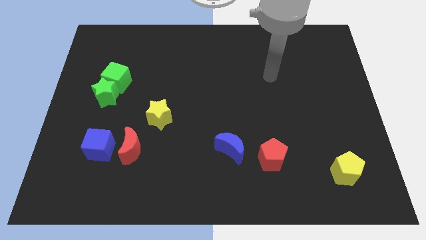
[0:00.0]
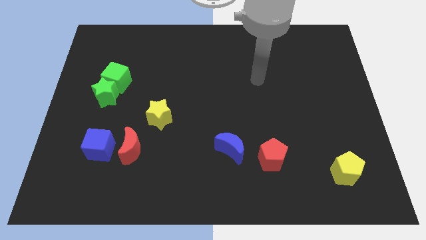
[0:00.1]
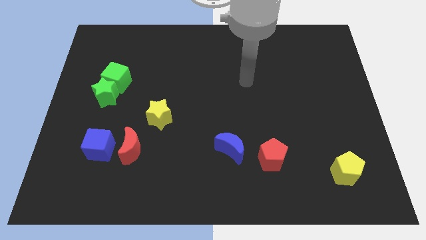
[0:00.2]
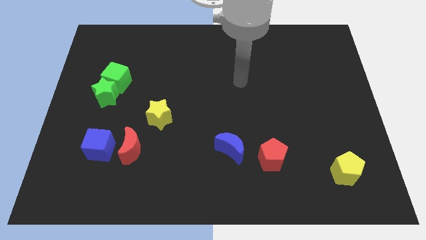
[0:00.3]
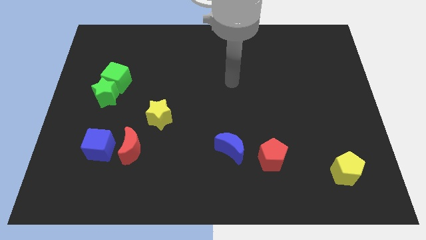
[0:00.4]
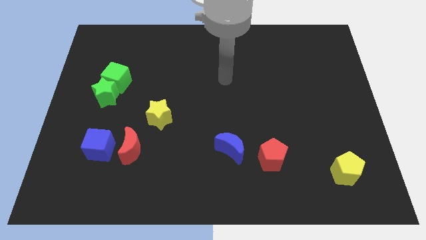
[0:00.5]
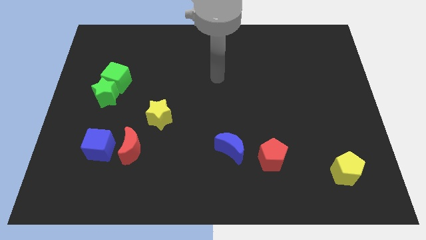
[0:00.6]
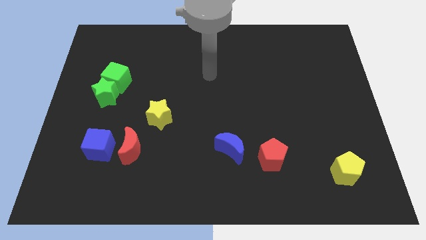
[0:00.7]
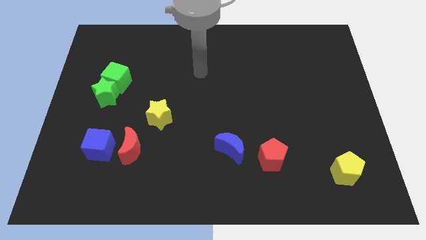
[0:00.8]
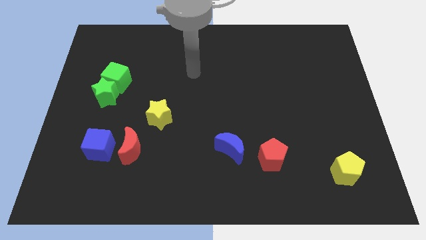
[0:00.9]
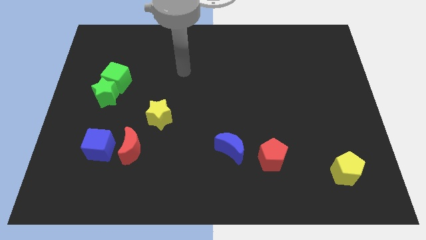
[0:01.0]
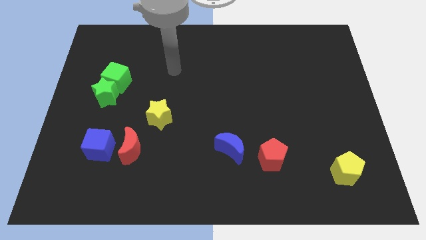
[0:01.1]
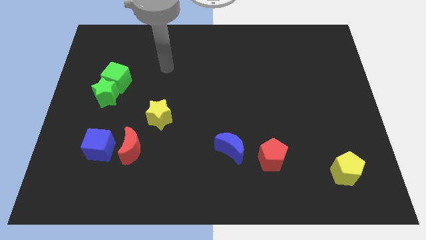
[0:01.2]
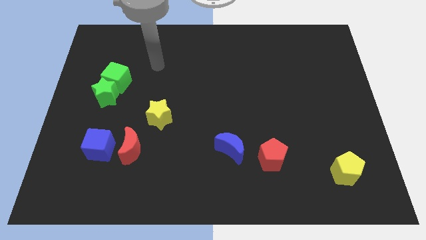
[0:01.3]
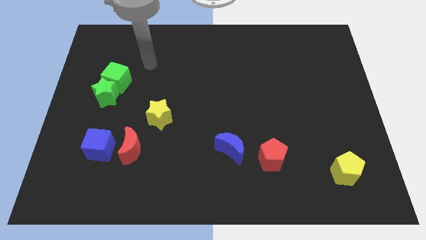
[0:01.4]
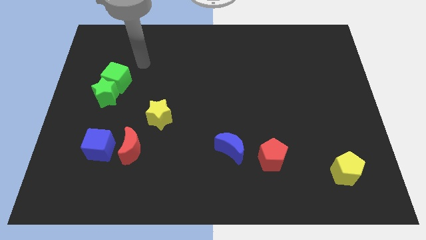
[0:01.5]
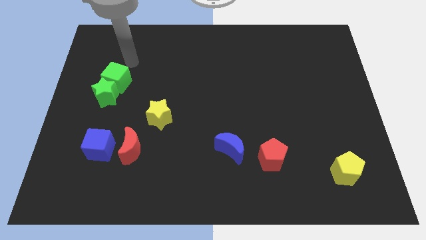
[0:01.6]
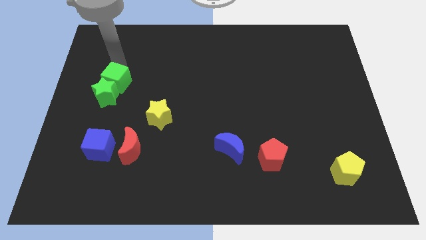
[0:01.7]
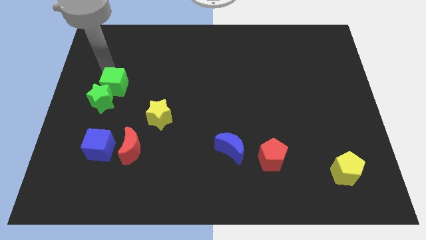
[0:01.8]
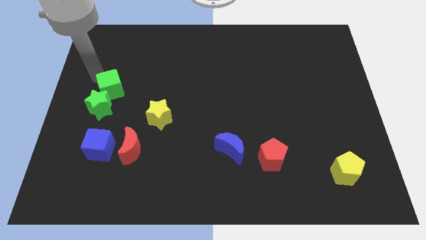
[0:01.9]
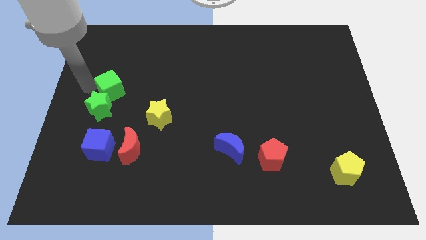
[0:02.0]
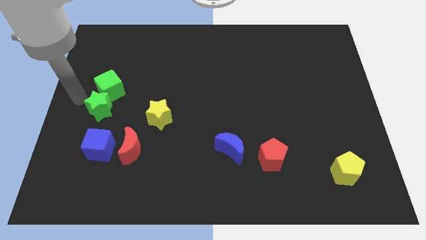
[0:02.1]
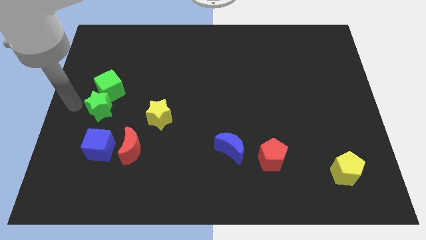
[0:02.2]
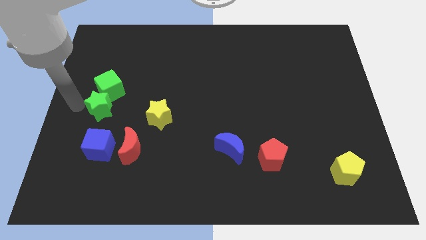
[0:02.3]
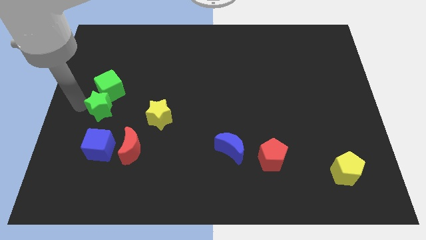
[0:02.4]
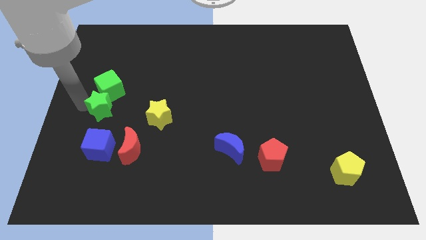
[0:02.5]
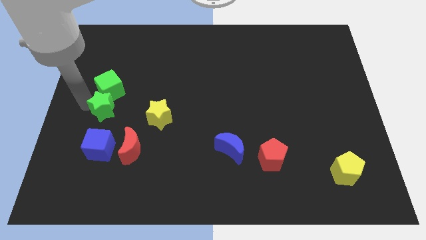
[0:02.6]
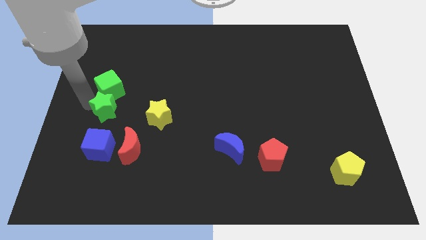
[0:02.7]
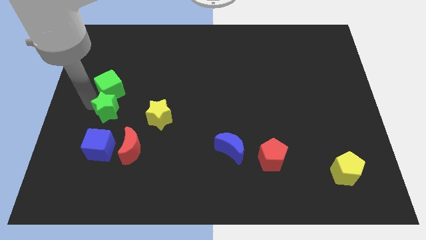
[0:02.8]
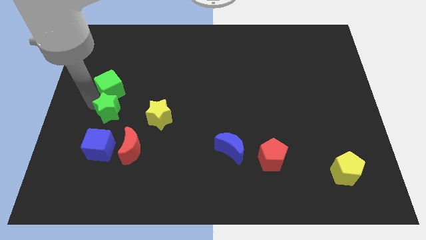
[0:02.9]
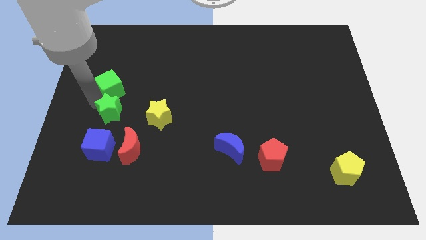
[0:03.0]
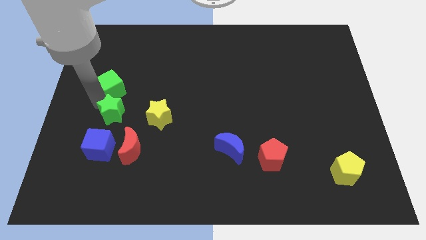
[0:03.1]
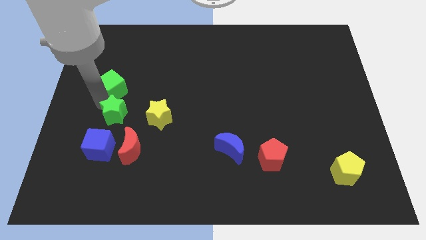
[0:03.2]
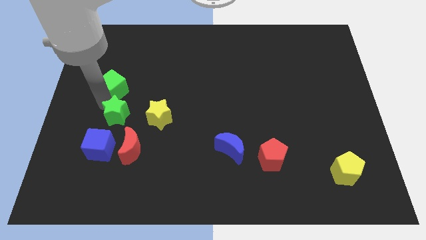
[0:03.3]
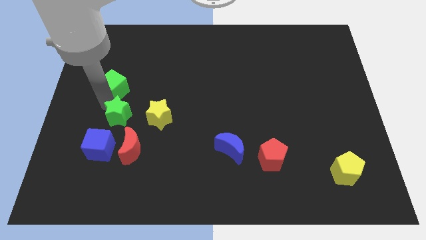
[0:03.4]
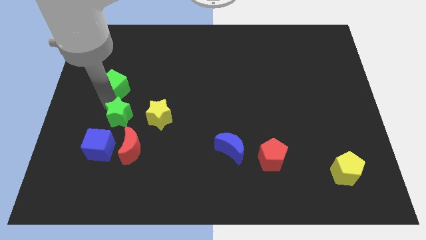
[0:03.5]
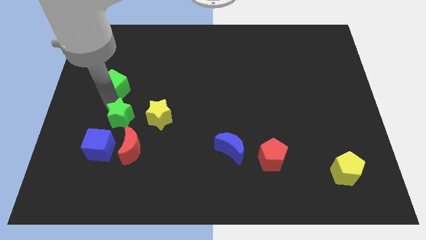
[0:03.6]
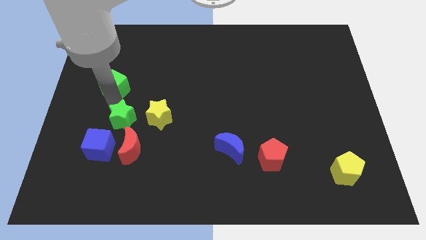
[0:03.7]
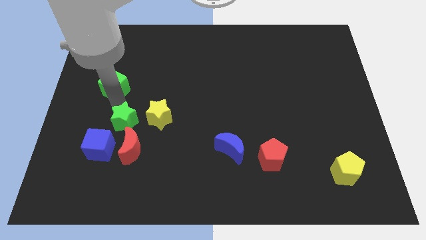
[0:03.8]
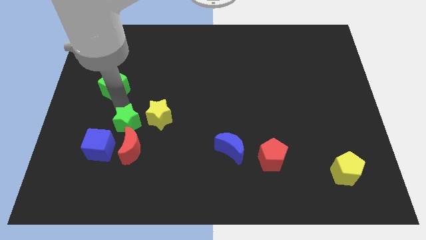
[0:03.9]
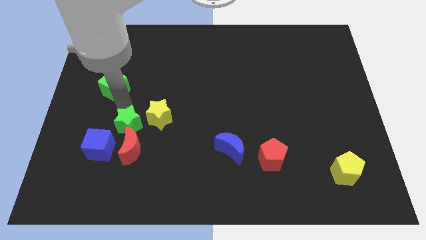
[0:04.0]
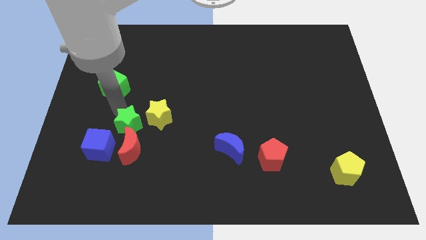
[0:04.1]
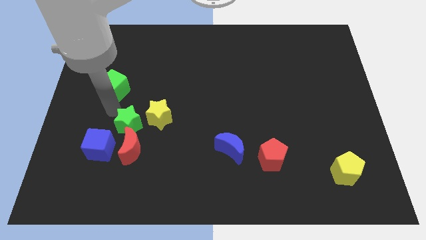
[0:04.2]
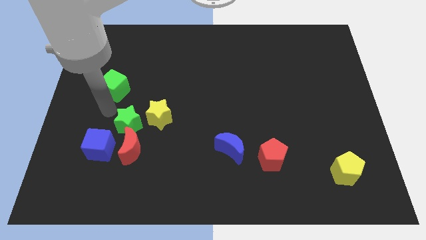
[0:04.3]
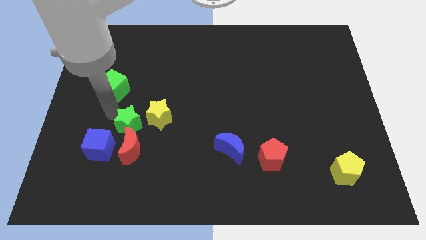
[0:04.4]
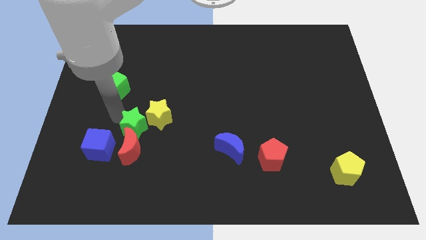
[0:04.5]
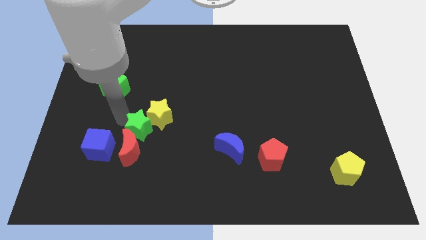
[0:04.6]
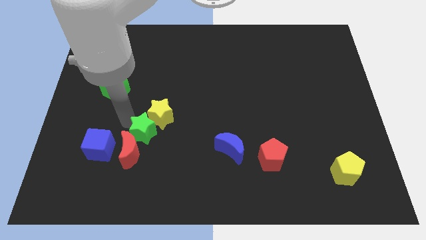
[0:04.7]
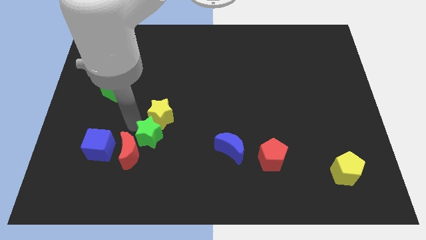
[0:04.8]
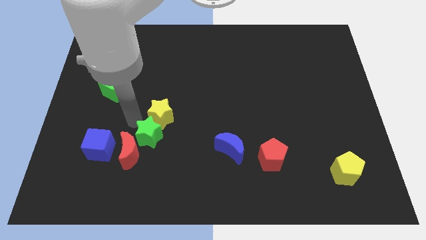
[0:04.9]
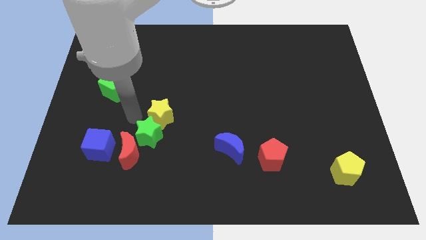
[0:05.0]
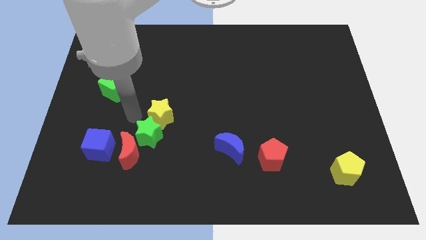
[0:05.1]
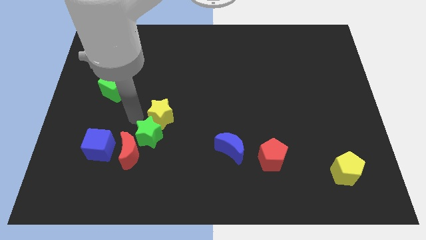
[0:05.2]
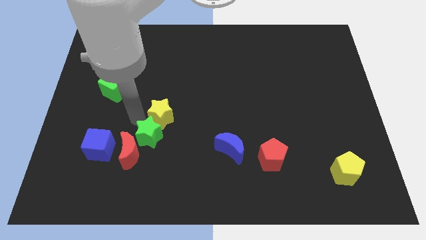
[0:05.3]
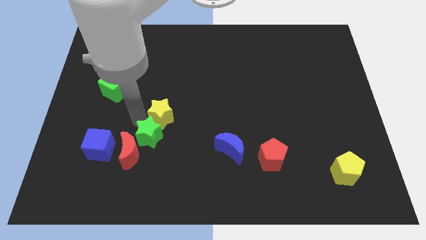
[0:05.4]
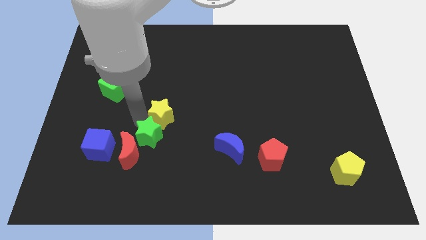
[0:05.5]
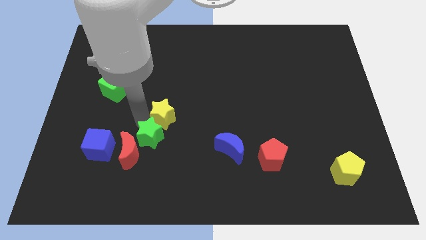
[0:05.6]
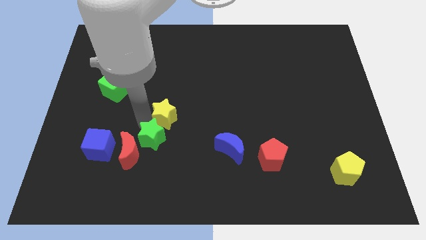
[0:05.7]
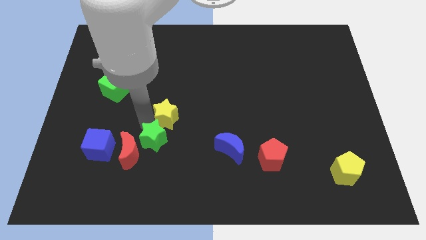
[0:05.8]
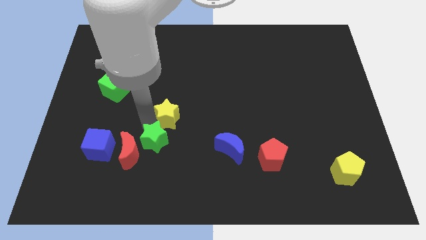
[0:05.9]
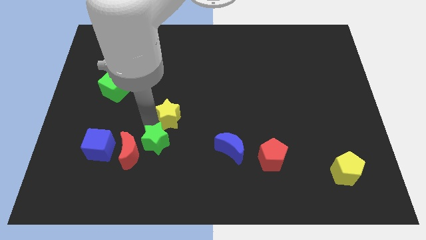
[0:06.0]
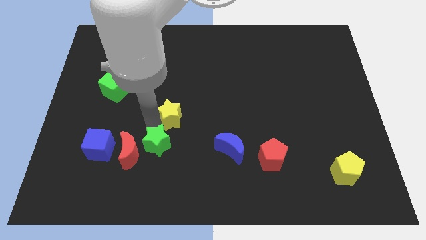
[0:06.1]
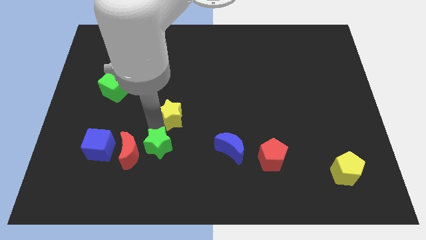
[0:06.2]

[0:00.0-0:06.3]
slide the green star downwards and then right

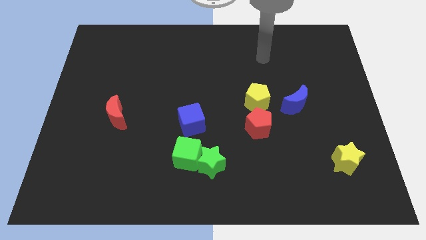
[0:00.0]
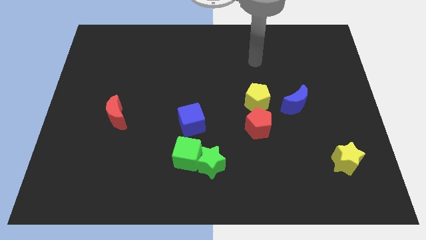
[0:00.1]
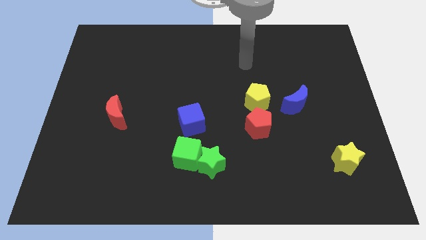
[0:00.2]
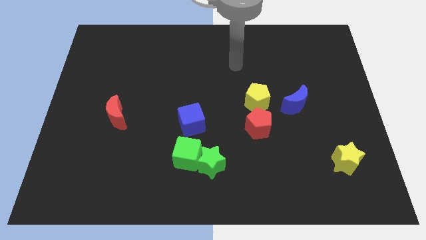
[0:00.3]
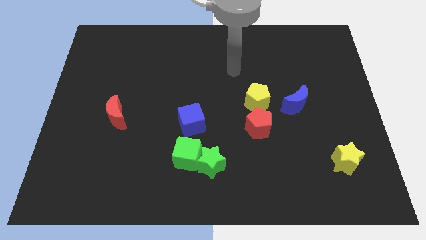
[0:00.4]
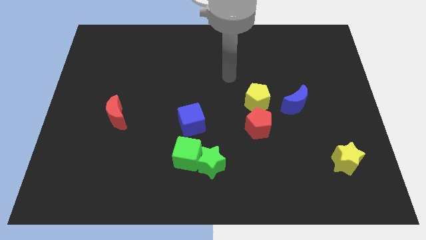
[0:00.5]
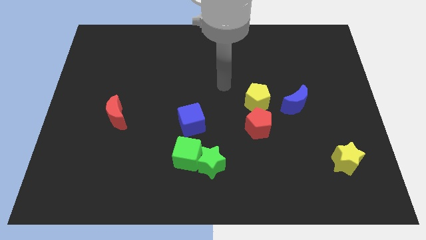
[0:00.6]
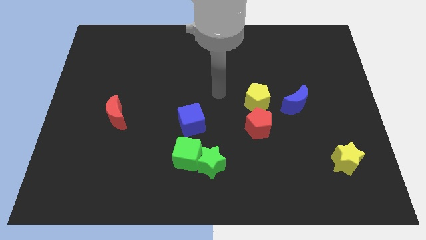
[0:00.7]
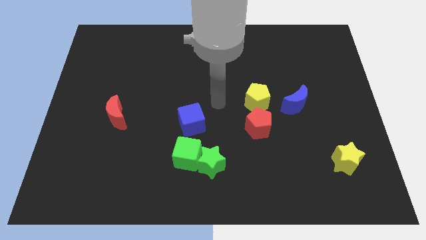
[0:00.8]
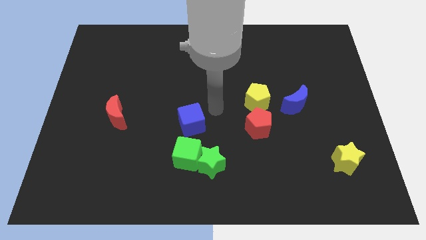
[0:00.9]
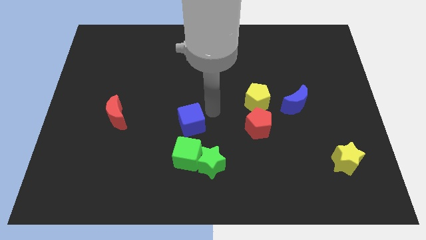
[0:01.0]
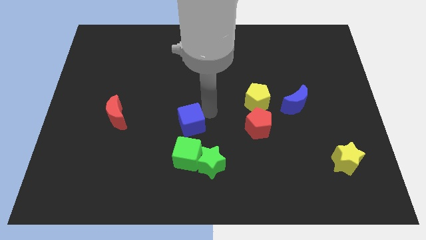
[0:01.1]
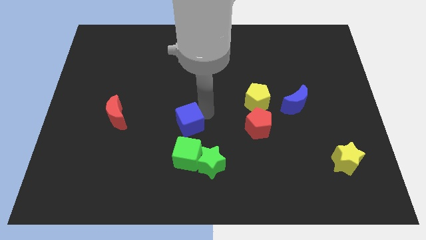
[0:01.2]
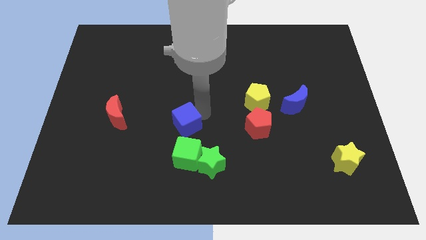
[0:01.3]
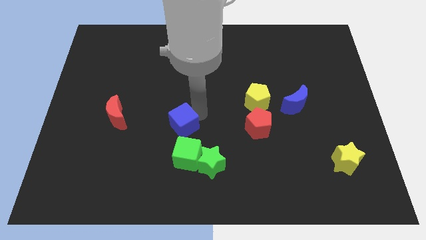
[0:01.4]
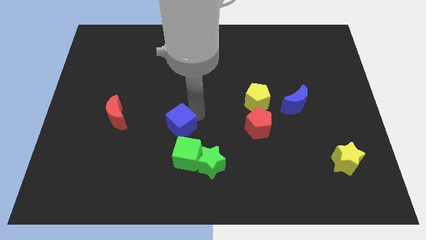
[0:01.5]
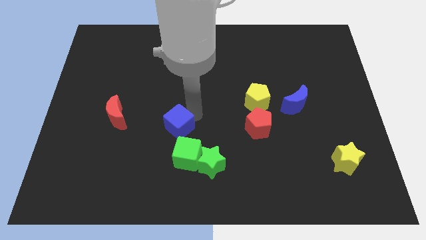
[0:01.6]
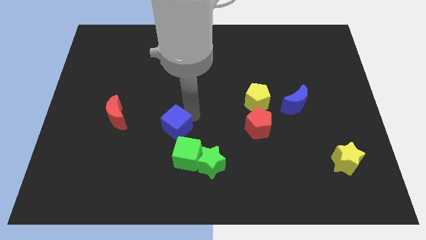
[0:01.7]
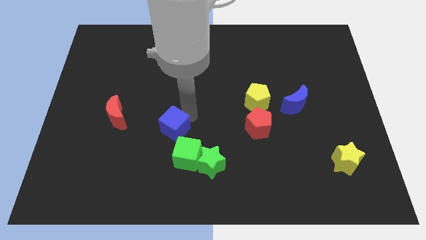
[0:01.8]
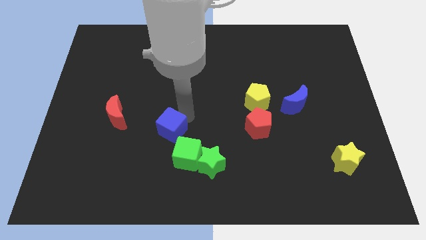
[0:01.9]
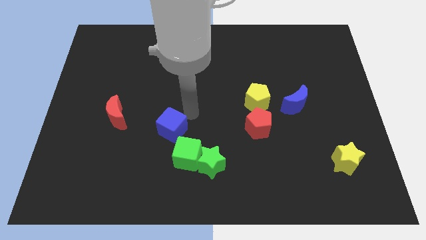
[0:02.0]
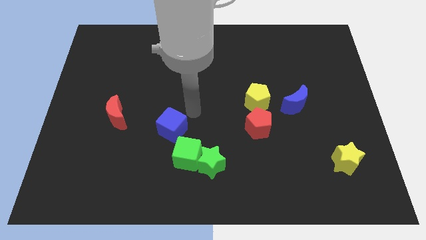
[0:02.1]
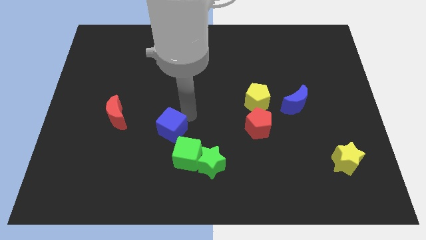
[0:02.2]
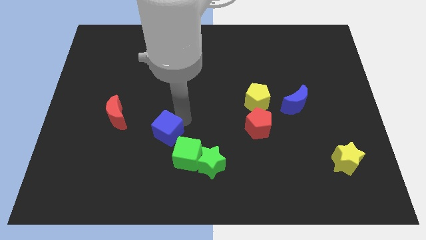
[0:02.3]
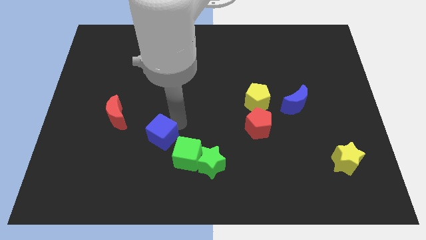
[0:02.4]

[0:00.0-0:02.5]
push the blue cube slightly diagonally downwards and to the left
